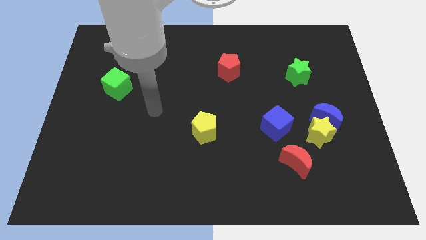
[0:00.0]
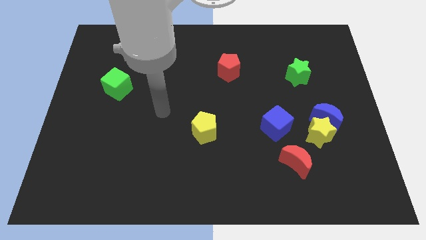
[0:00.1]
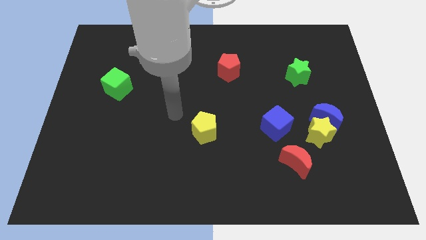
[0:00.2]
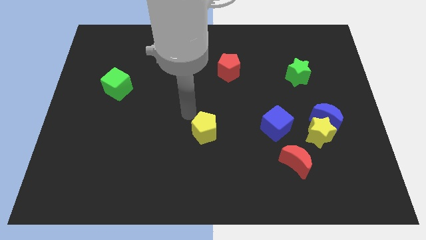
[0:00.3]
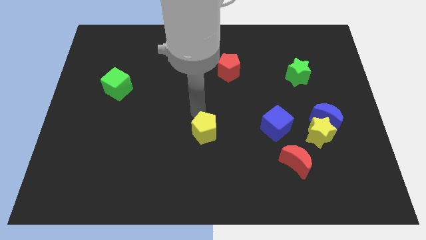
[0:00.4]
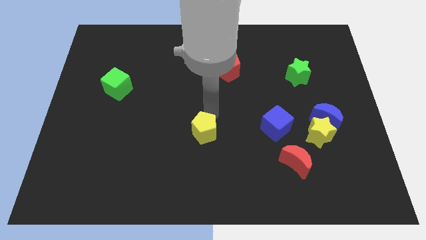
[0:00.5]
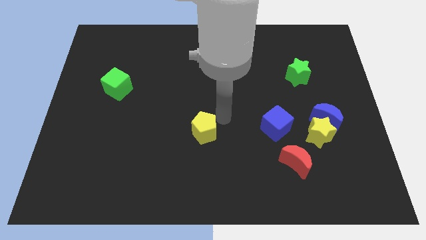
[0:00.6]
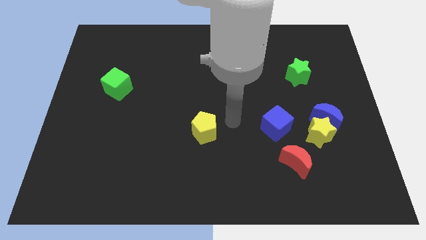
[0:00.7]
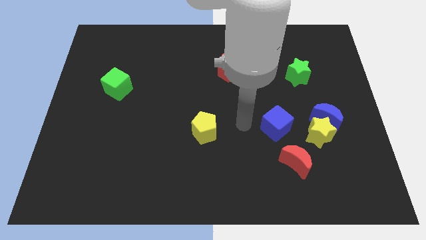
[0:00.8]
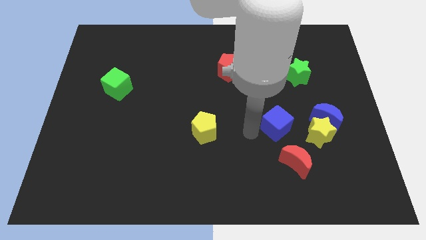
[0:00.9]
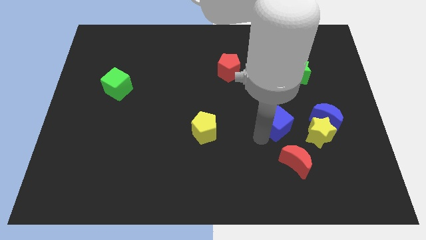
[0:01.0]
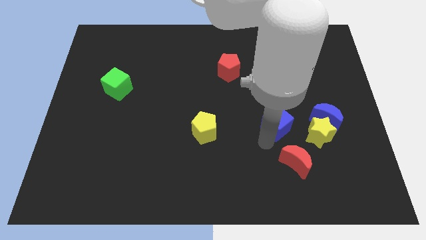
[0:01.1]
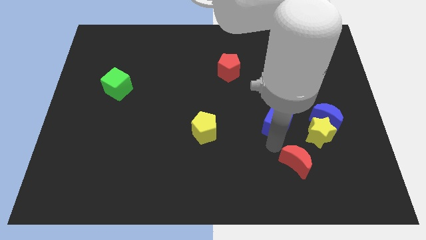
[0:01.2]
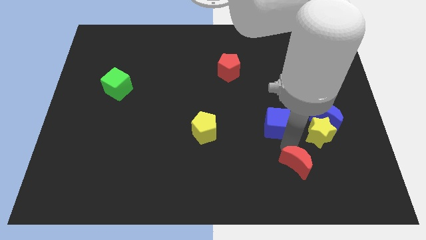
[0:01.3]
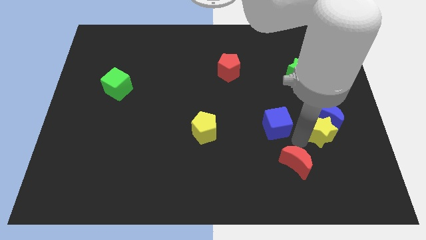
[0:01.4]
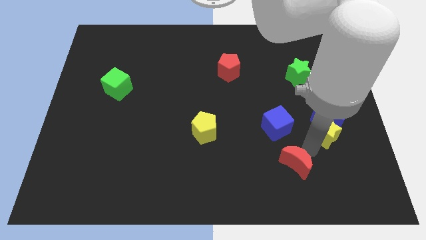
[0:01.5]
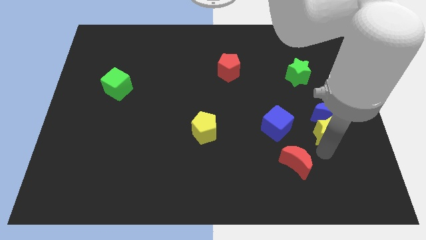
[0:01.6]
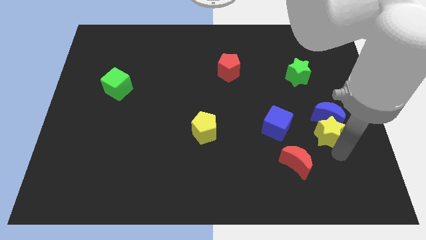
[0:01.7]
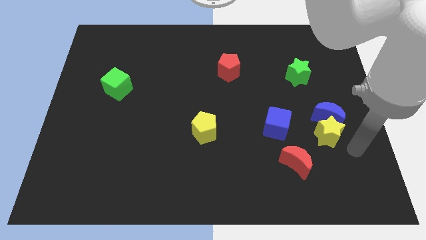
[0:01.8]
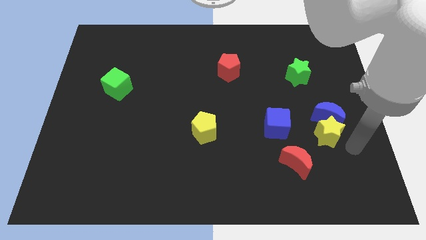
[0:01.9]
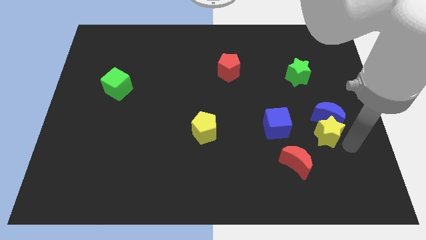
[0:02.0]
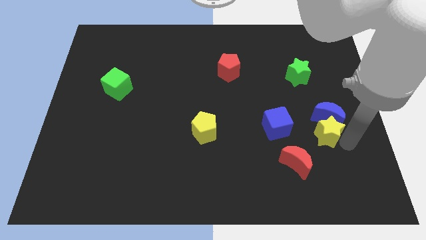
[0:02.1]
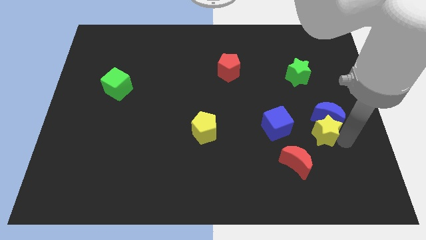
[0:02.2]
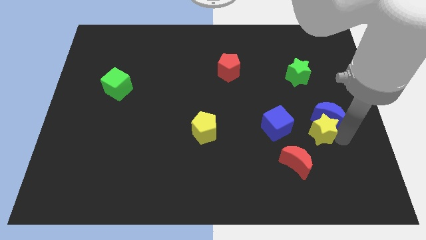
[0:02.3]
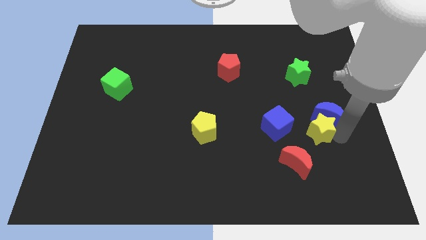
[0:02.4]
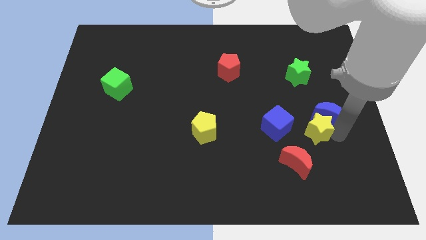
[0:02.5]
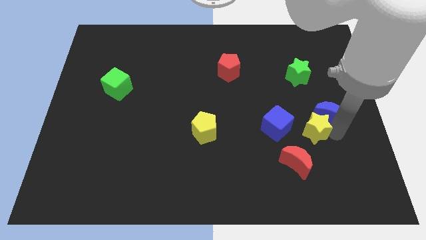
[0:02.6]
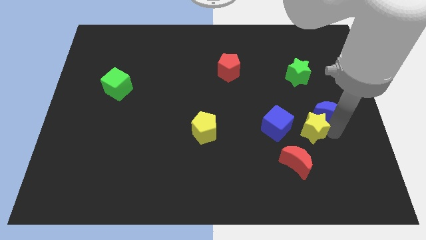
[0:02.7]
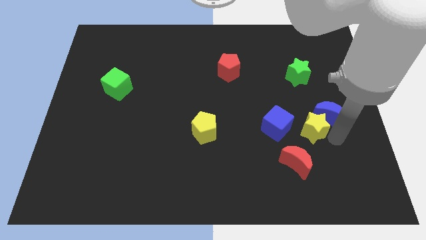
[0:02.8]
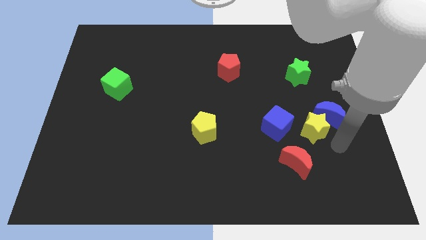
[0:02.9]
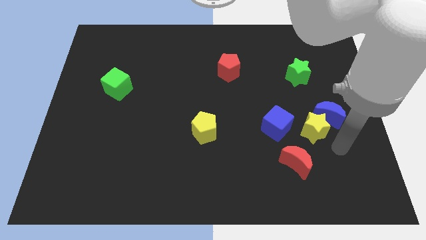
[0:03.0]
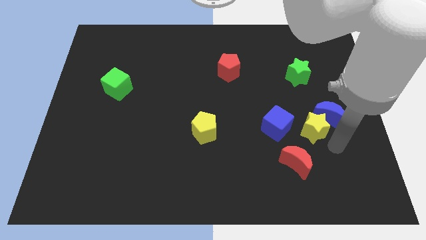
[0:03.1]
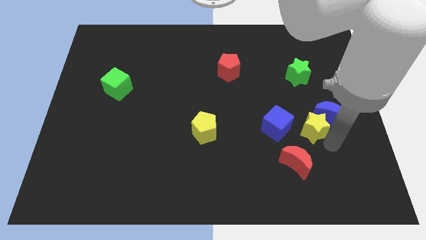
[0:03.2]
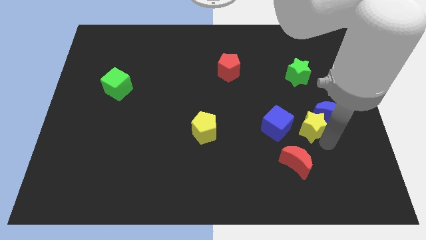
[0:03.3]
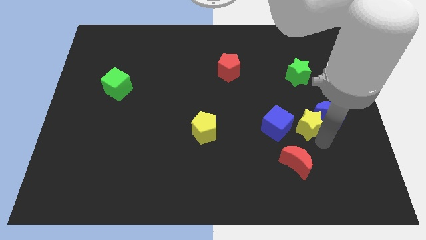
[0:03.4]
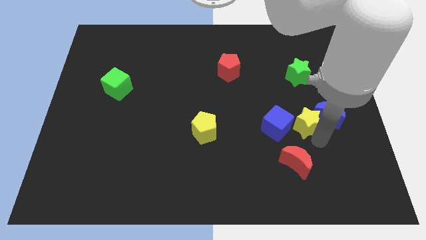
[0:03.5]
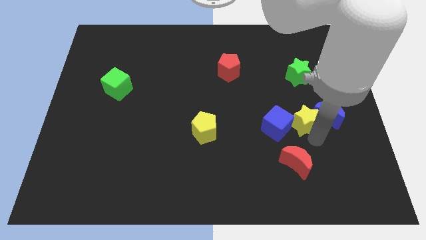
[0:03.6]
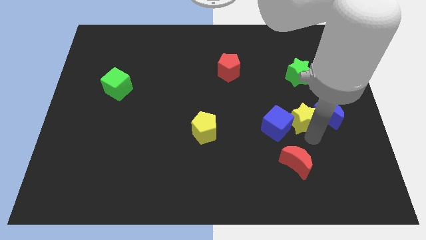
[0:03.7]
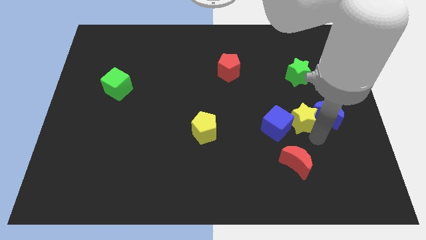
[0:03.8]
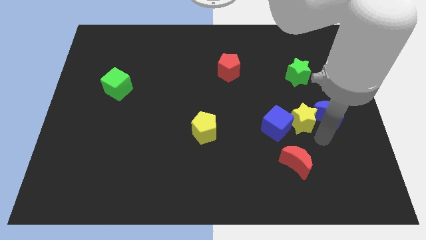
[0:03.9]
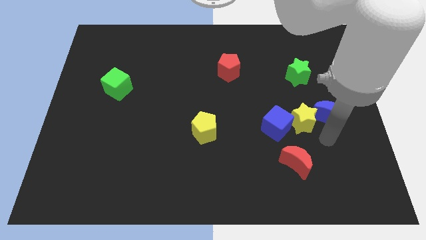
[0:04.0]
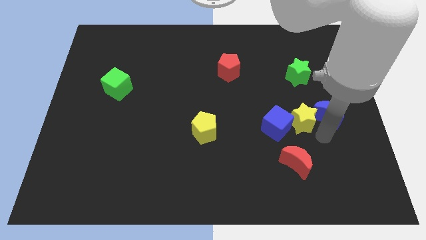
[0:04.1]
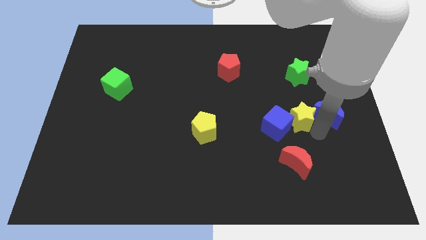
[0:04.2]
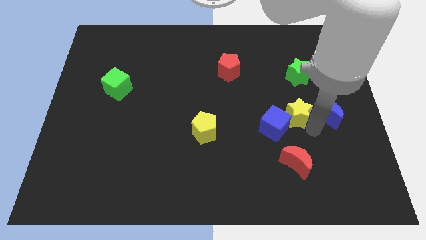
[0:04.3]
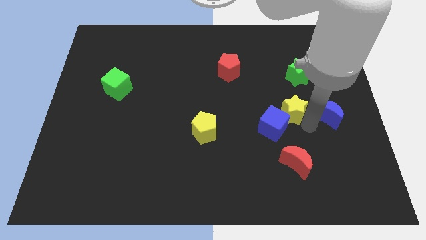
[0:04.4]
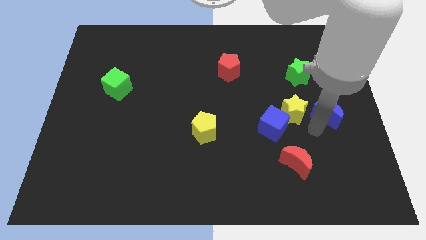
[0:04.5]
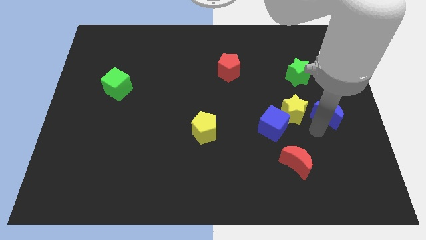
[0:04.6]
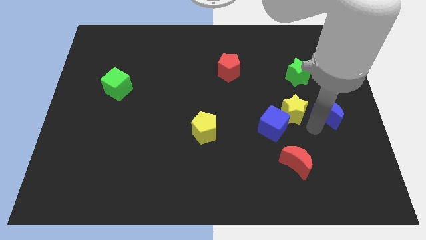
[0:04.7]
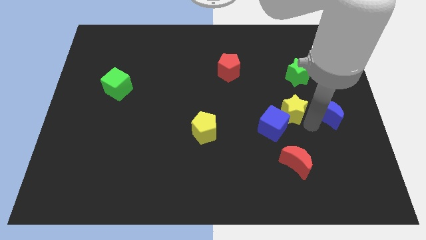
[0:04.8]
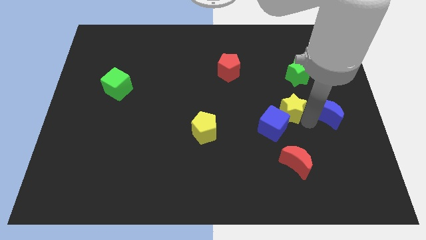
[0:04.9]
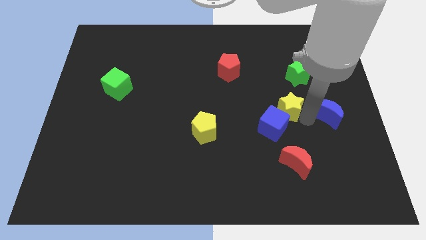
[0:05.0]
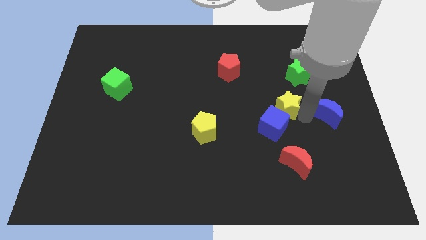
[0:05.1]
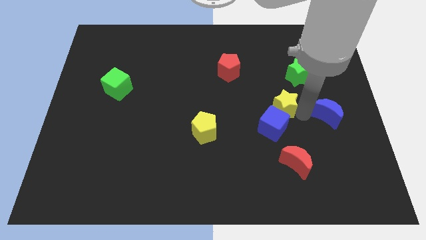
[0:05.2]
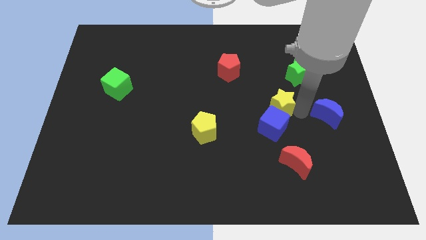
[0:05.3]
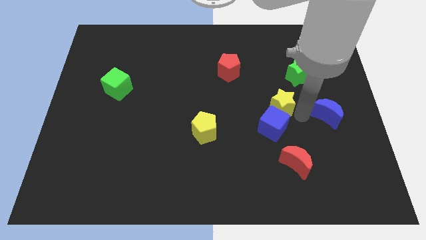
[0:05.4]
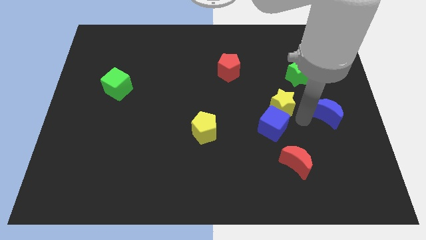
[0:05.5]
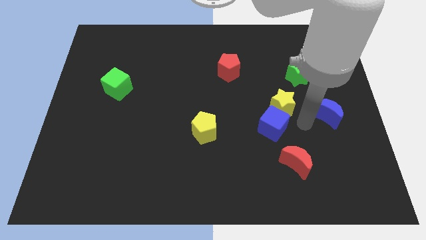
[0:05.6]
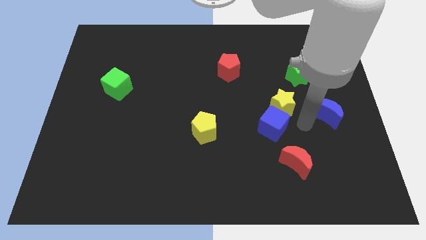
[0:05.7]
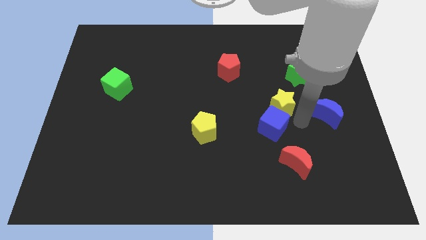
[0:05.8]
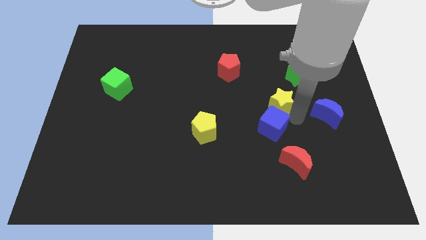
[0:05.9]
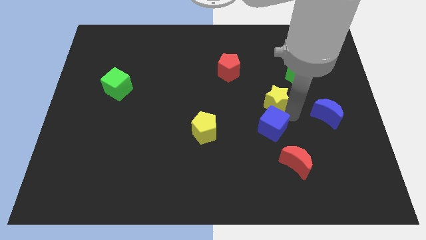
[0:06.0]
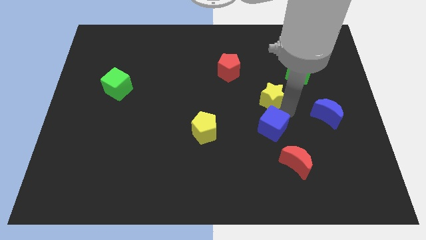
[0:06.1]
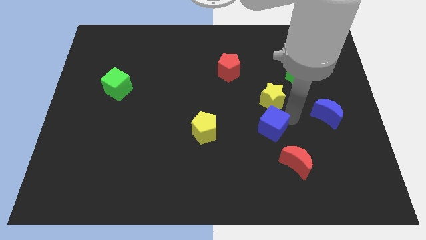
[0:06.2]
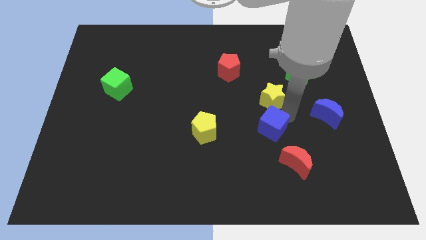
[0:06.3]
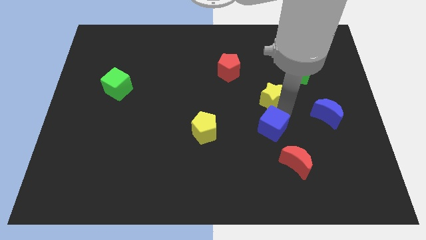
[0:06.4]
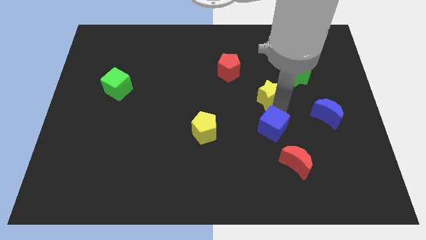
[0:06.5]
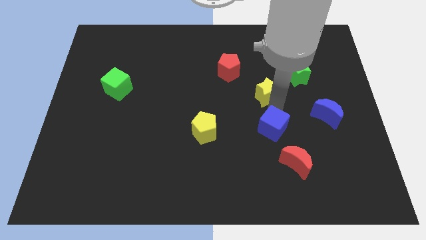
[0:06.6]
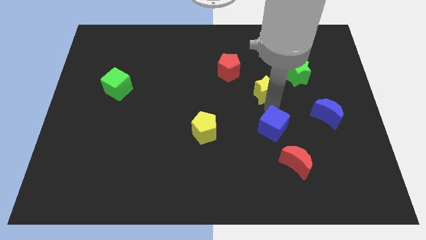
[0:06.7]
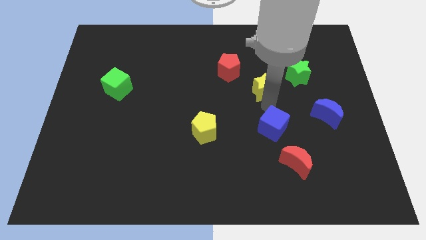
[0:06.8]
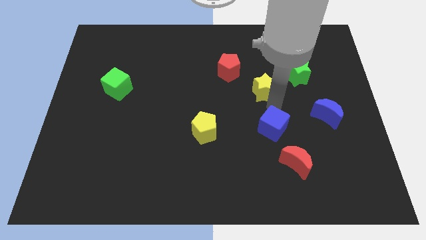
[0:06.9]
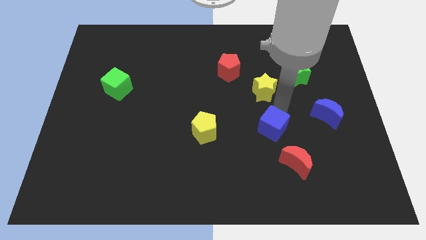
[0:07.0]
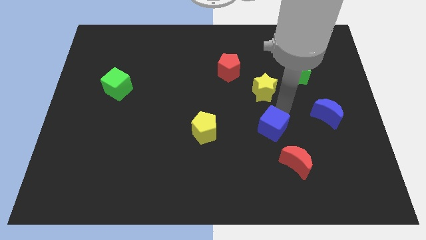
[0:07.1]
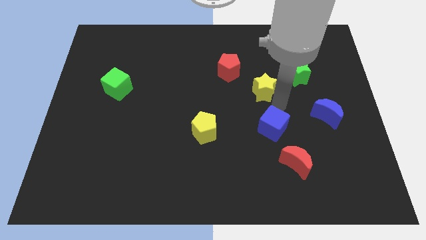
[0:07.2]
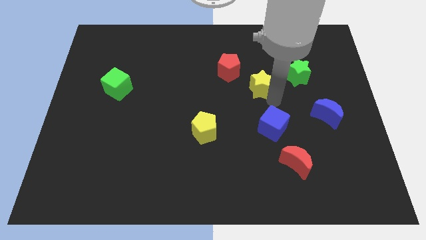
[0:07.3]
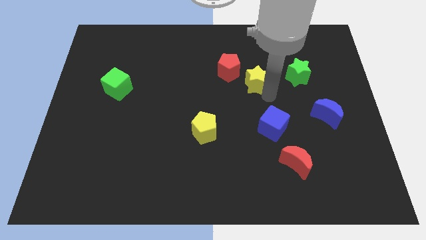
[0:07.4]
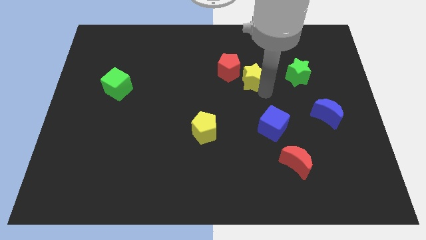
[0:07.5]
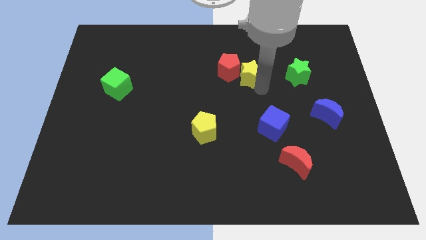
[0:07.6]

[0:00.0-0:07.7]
put the yellow star towards the red pentagon

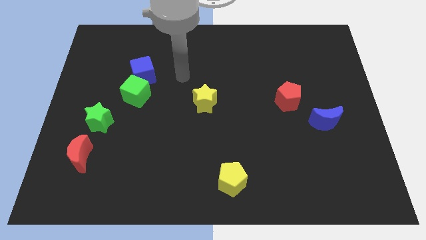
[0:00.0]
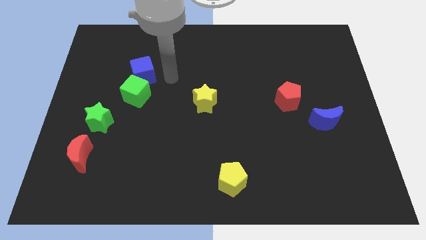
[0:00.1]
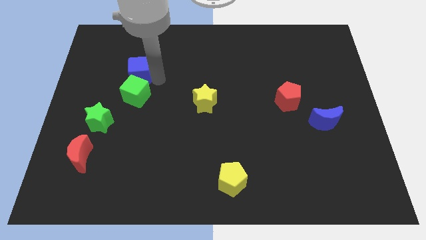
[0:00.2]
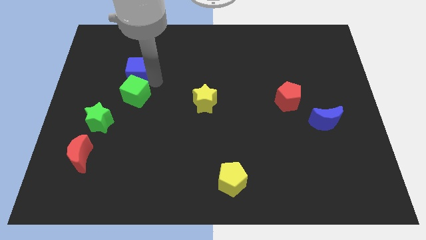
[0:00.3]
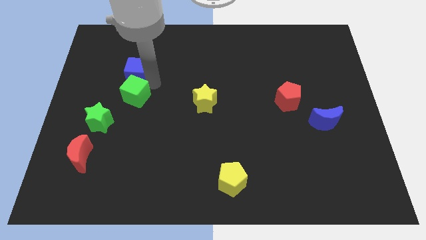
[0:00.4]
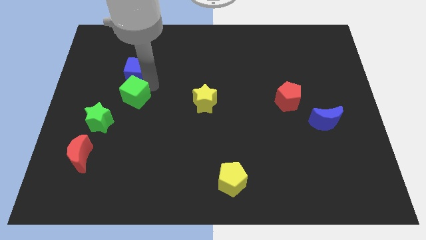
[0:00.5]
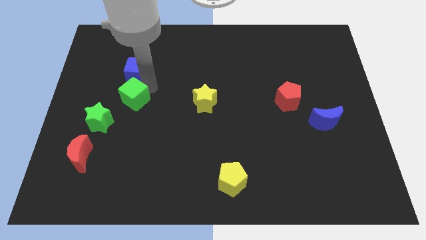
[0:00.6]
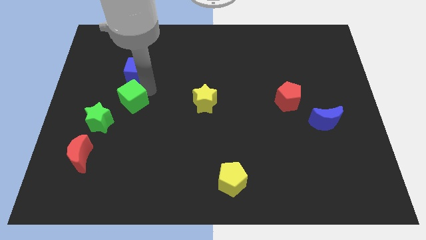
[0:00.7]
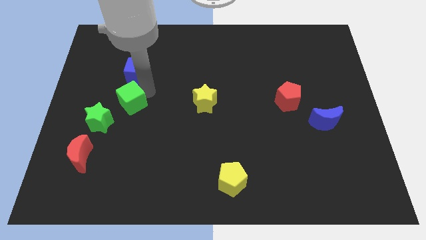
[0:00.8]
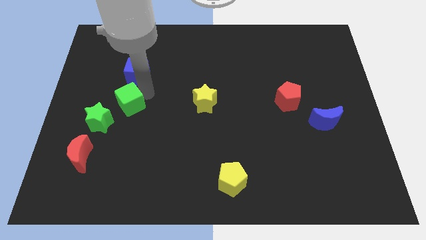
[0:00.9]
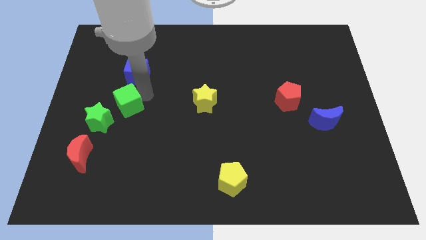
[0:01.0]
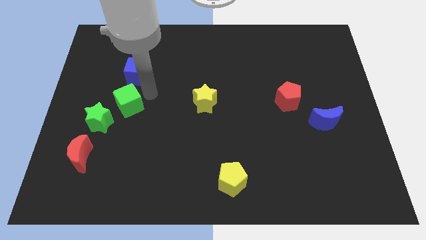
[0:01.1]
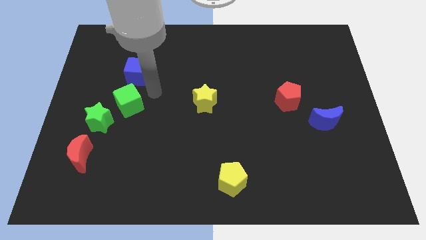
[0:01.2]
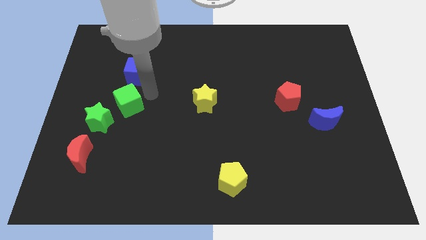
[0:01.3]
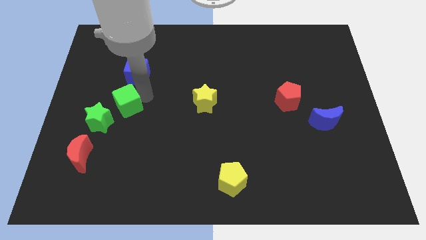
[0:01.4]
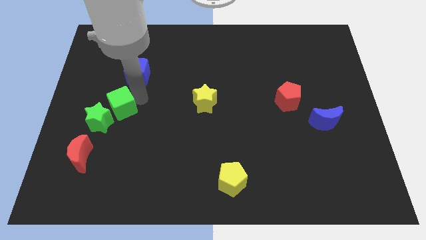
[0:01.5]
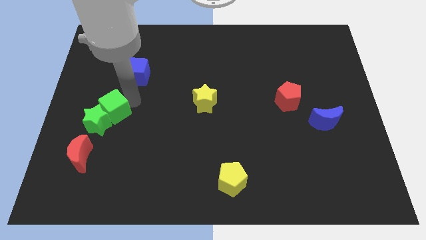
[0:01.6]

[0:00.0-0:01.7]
push the green cube to the green star
